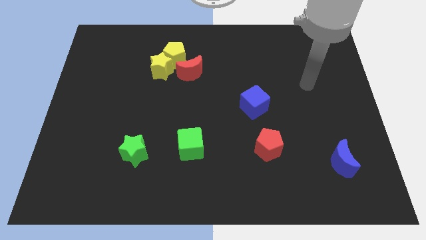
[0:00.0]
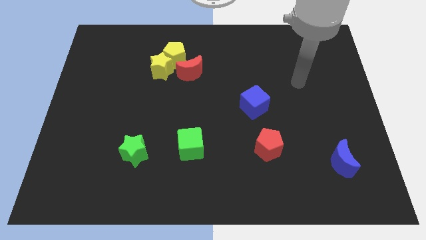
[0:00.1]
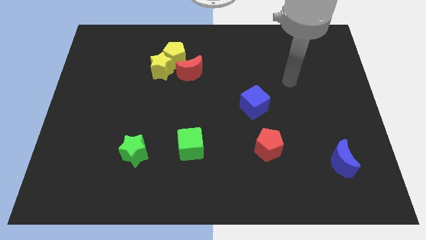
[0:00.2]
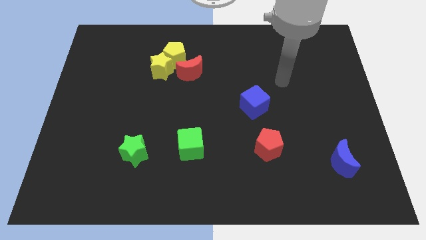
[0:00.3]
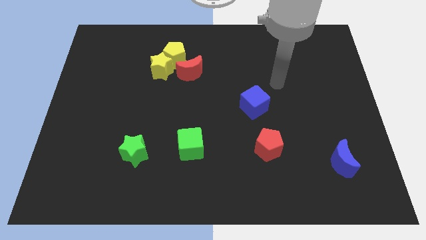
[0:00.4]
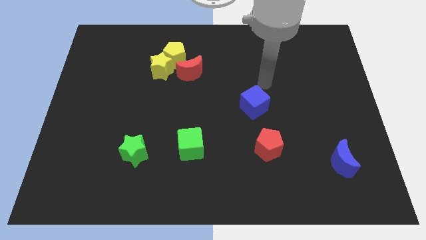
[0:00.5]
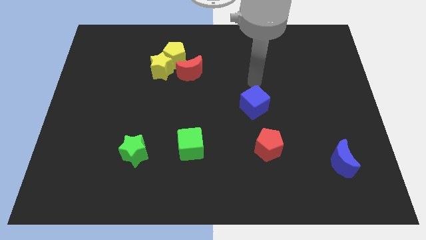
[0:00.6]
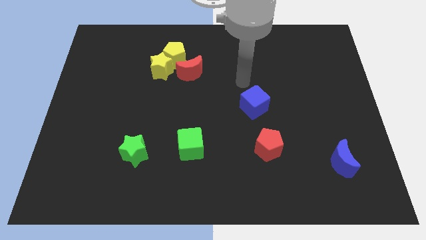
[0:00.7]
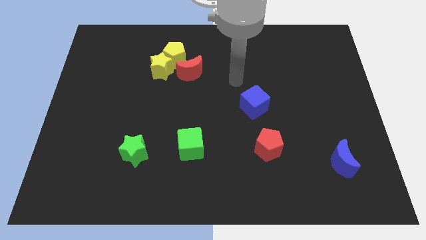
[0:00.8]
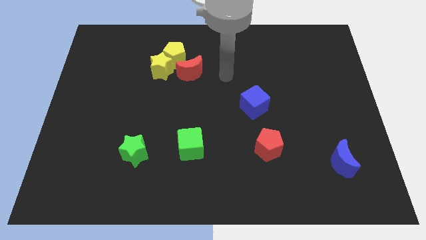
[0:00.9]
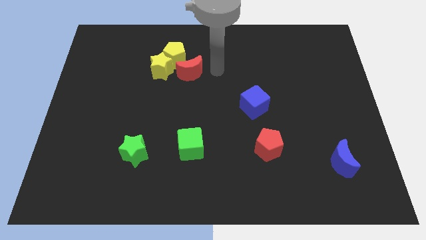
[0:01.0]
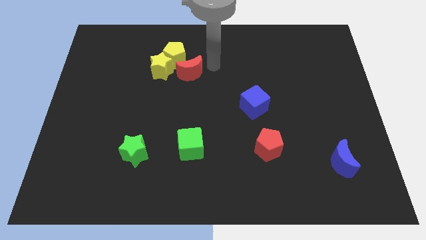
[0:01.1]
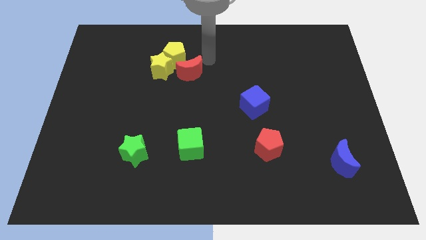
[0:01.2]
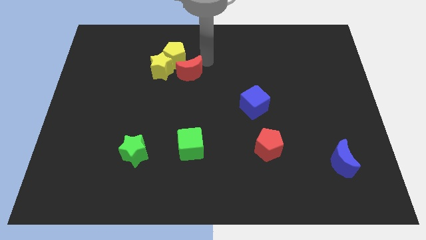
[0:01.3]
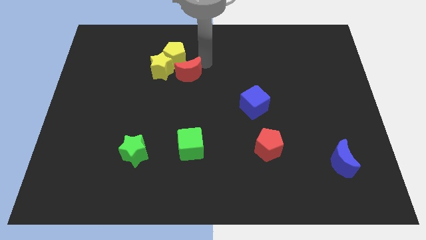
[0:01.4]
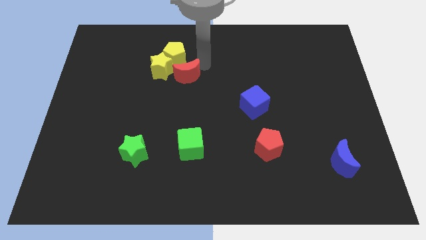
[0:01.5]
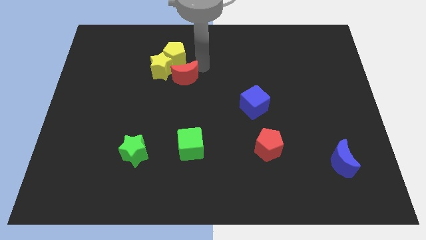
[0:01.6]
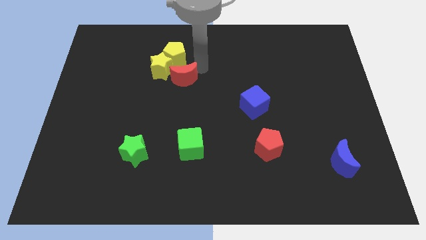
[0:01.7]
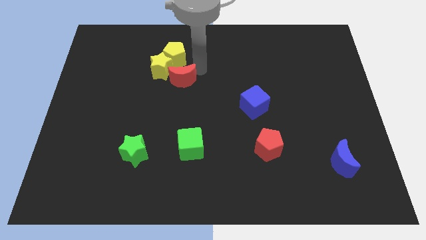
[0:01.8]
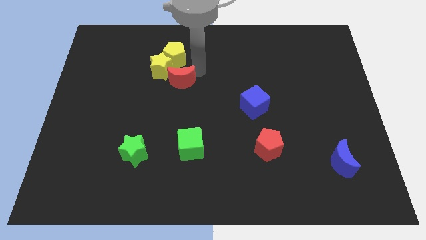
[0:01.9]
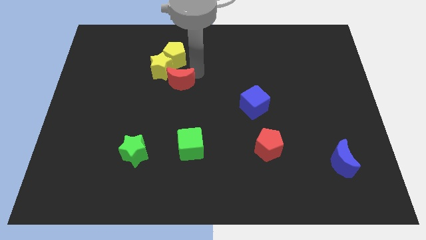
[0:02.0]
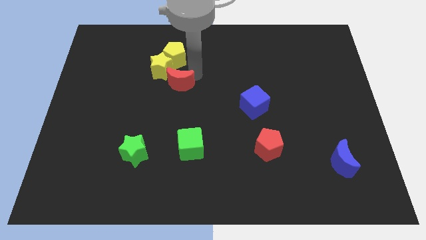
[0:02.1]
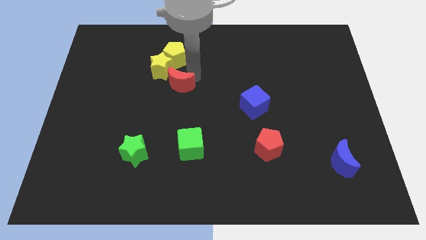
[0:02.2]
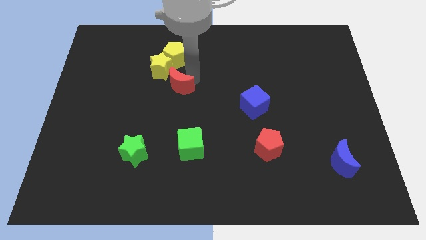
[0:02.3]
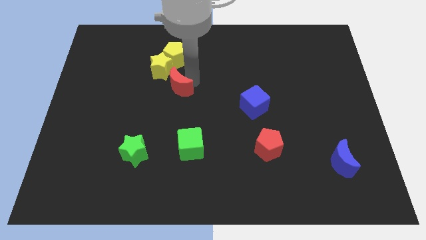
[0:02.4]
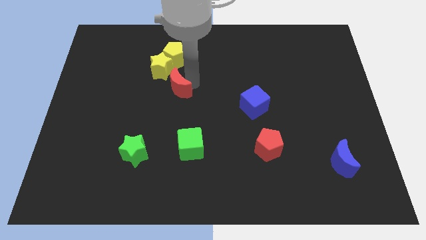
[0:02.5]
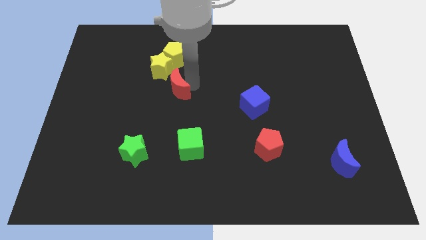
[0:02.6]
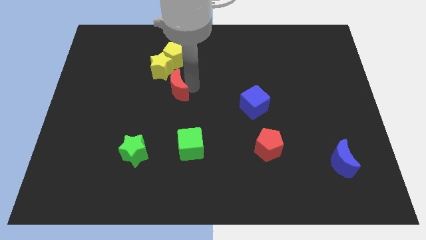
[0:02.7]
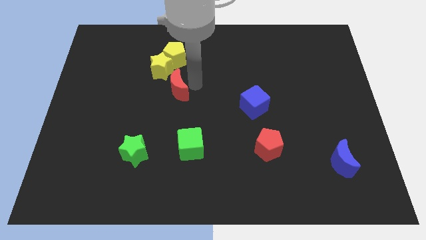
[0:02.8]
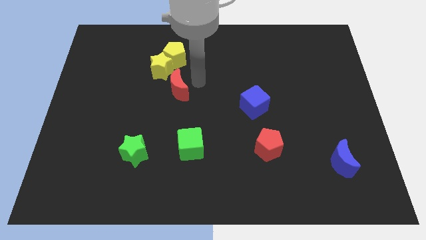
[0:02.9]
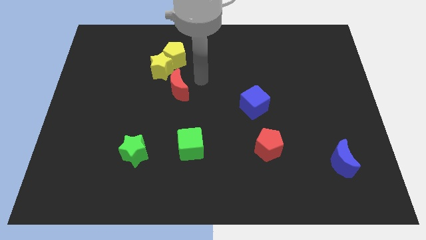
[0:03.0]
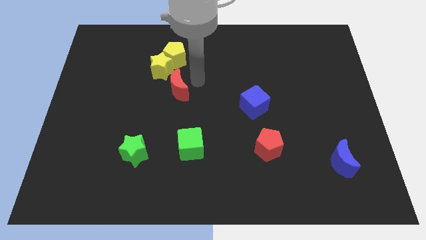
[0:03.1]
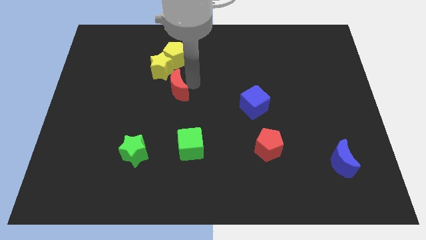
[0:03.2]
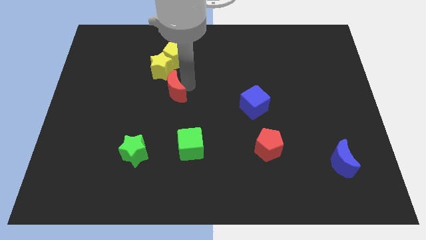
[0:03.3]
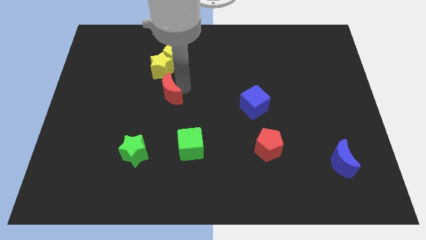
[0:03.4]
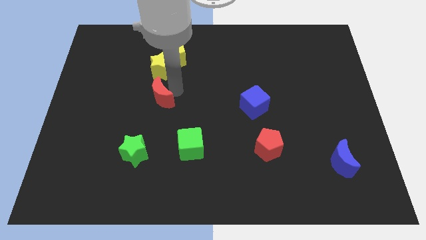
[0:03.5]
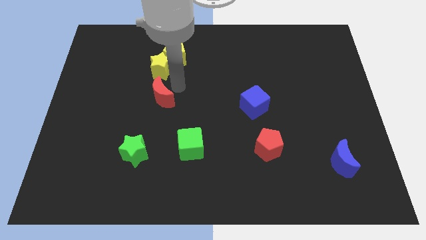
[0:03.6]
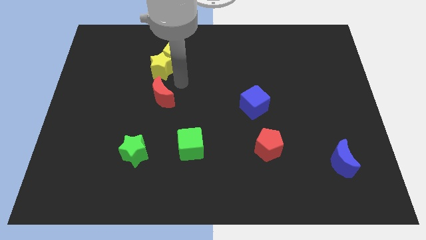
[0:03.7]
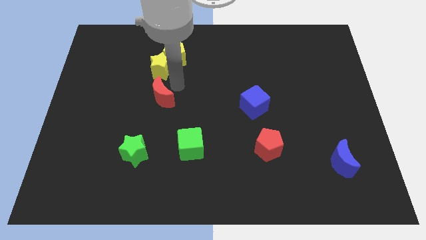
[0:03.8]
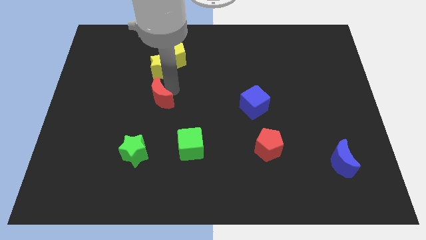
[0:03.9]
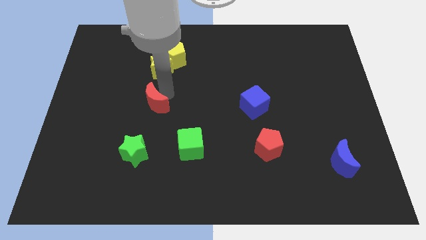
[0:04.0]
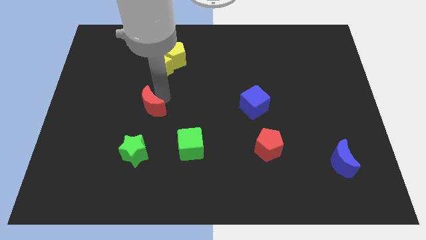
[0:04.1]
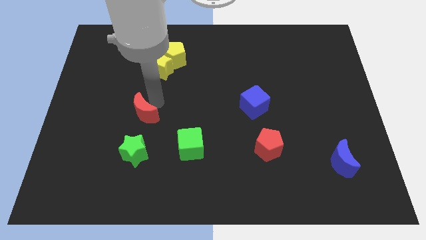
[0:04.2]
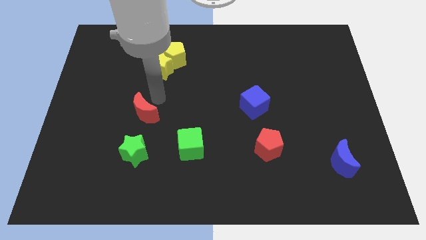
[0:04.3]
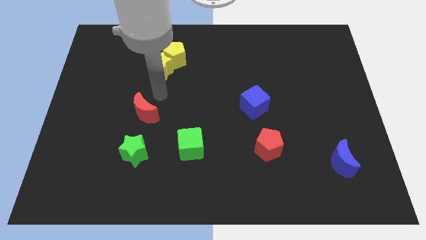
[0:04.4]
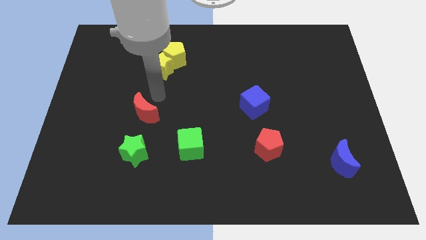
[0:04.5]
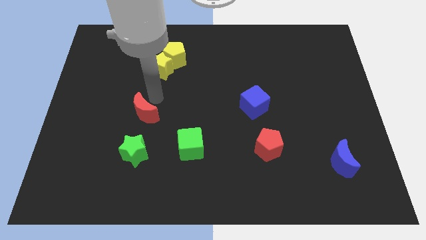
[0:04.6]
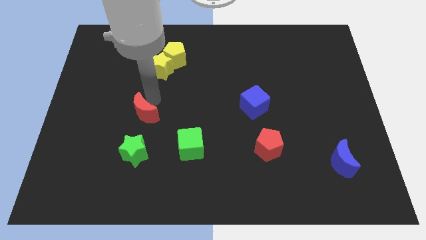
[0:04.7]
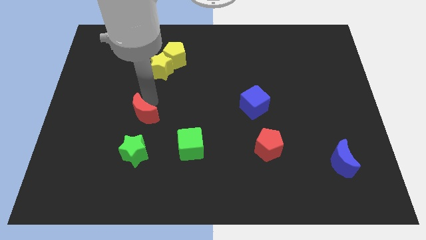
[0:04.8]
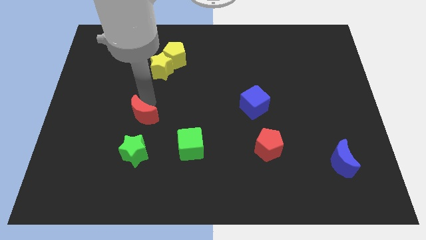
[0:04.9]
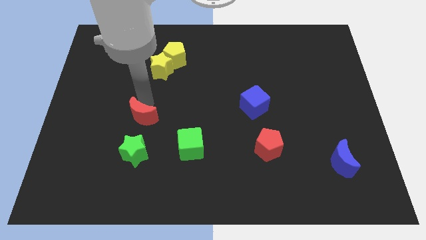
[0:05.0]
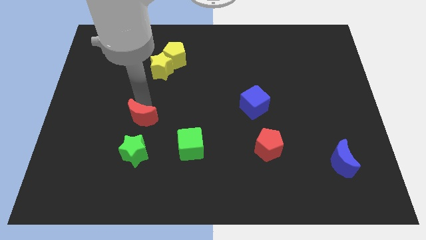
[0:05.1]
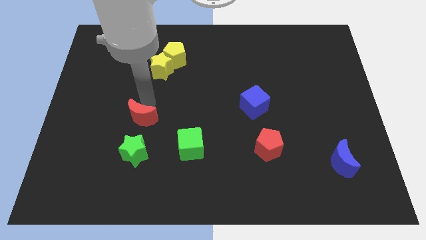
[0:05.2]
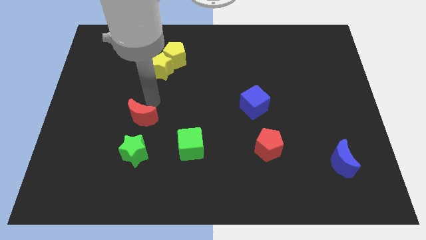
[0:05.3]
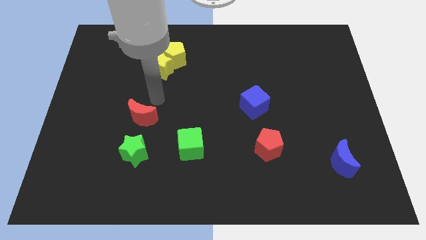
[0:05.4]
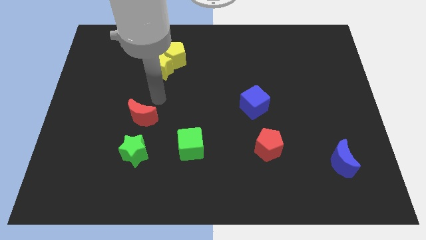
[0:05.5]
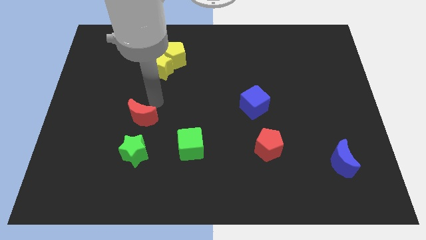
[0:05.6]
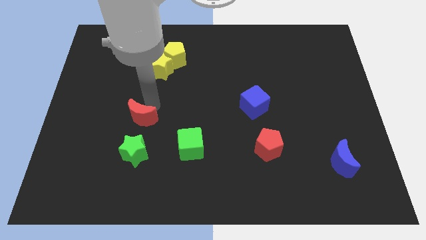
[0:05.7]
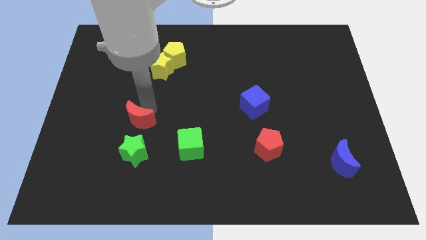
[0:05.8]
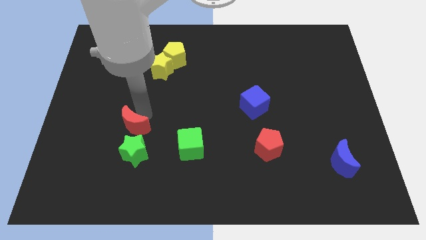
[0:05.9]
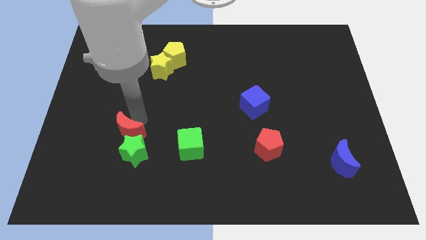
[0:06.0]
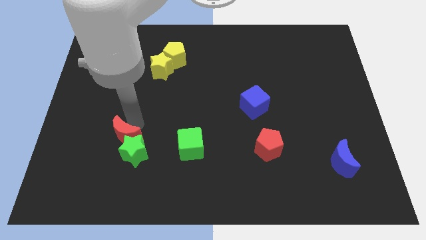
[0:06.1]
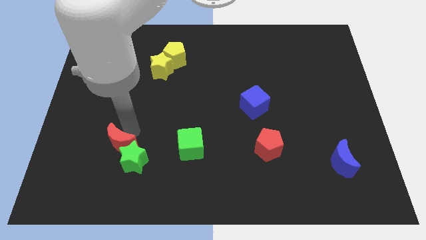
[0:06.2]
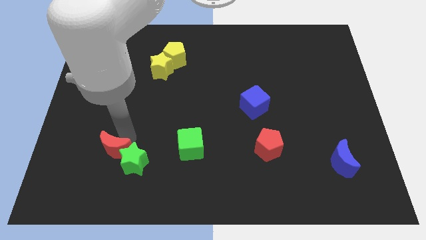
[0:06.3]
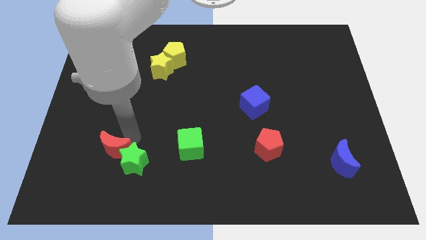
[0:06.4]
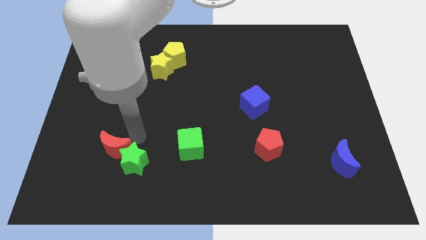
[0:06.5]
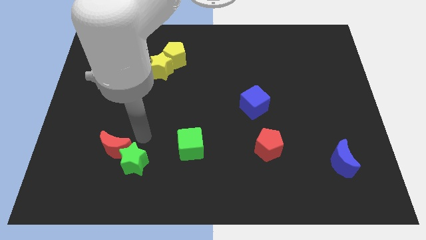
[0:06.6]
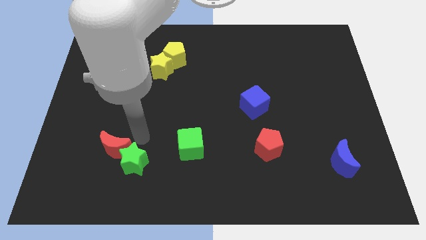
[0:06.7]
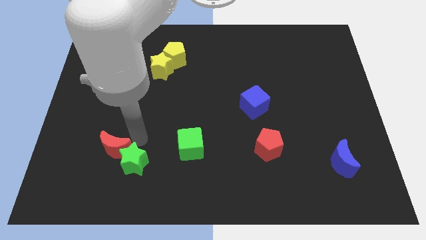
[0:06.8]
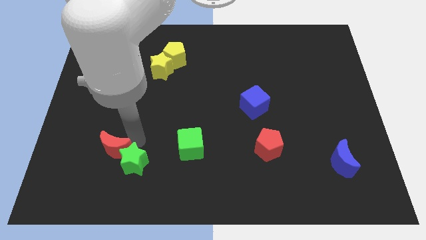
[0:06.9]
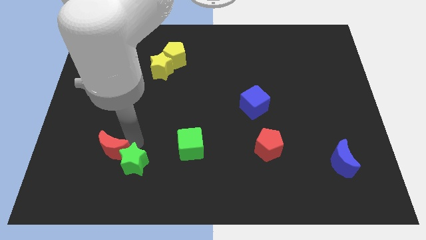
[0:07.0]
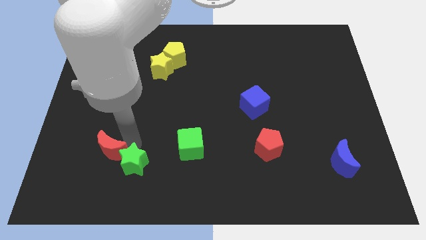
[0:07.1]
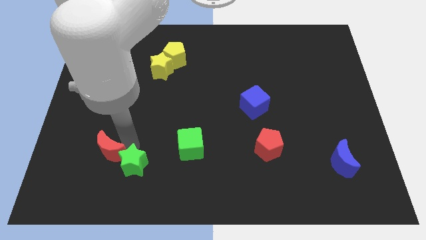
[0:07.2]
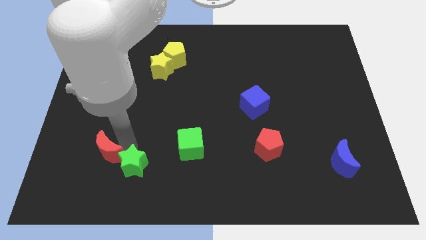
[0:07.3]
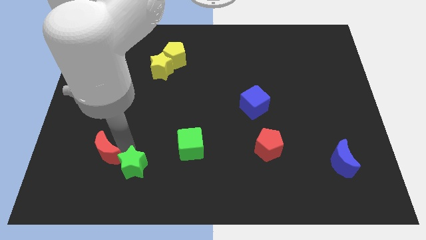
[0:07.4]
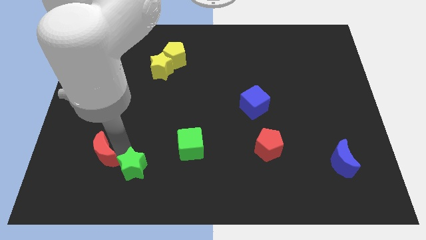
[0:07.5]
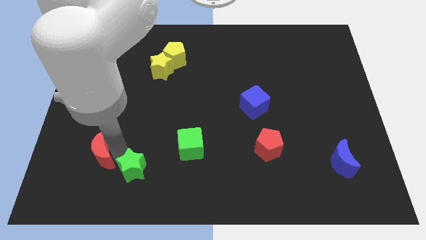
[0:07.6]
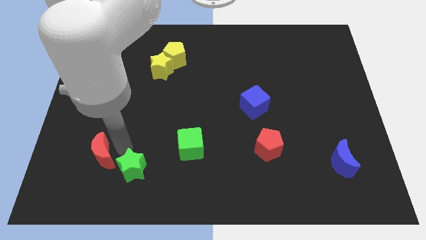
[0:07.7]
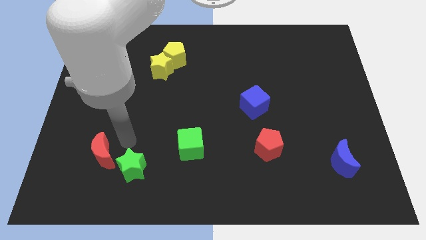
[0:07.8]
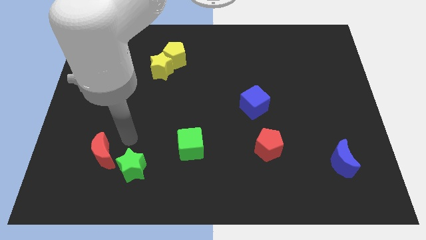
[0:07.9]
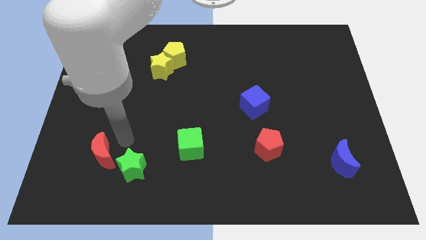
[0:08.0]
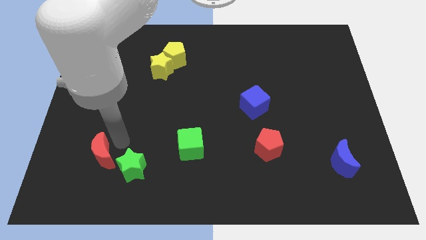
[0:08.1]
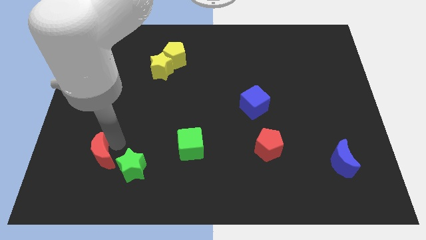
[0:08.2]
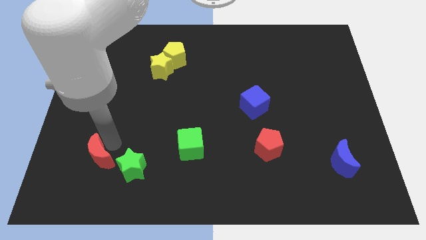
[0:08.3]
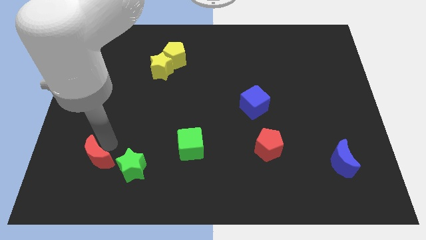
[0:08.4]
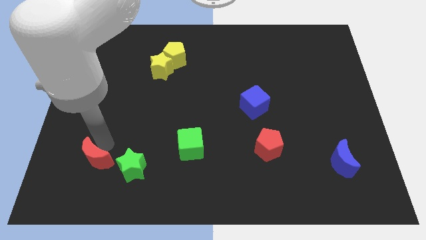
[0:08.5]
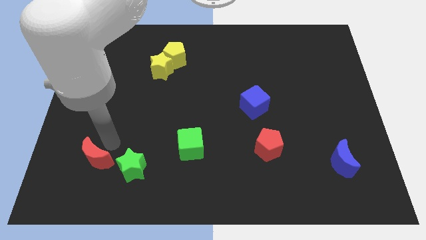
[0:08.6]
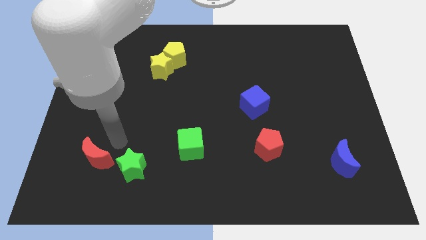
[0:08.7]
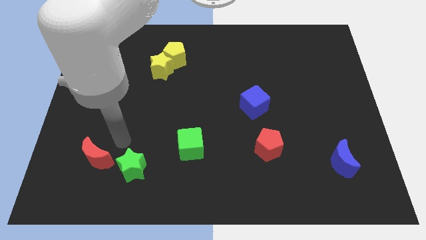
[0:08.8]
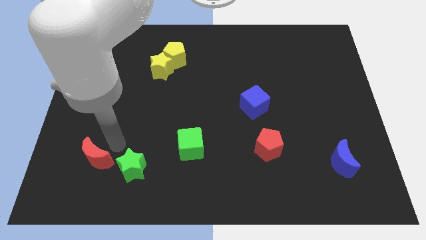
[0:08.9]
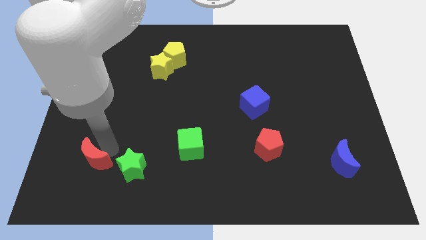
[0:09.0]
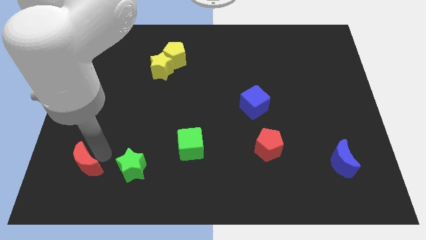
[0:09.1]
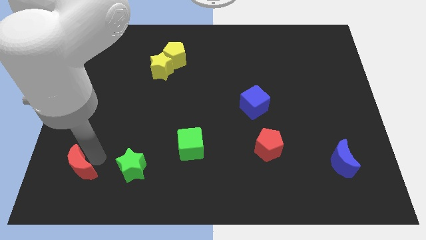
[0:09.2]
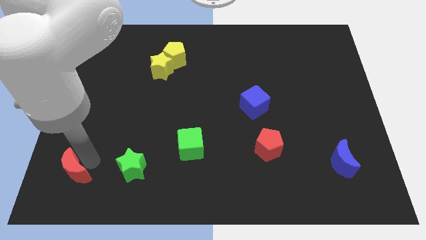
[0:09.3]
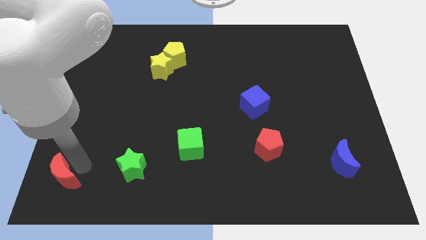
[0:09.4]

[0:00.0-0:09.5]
move the red moon to the lower left corner
